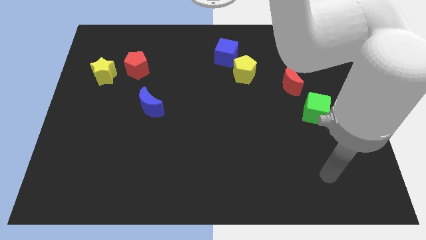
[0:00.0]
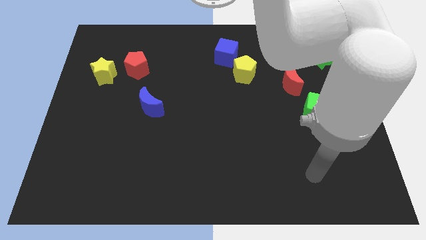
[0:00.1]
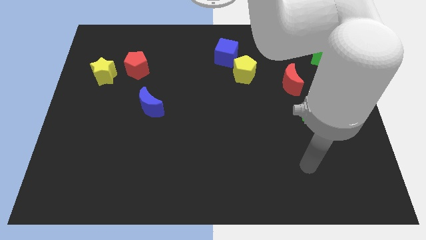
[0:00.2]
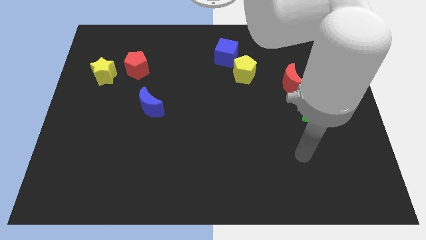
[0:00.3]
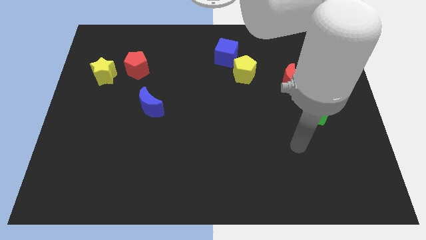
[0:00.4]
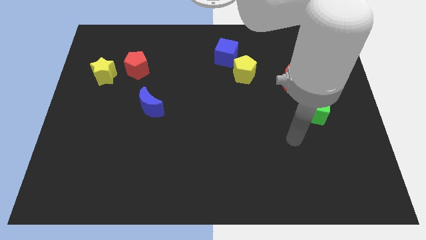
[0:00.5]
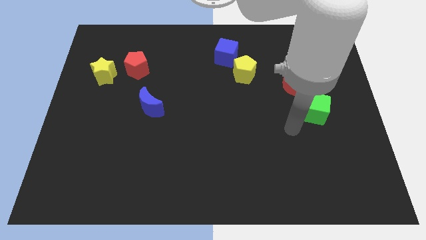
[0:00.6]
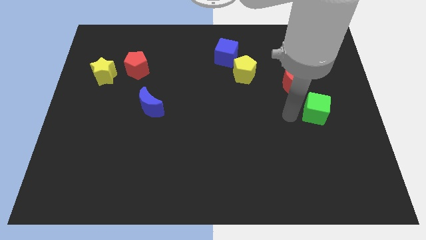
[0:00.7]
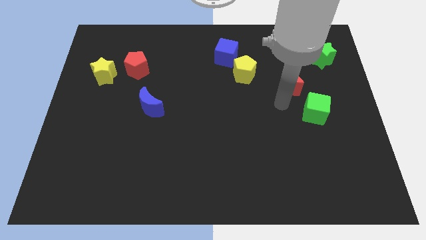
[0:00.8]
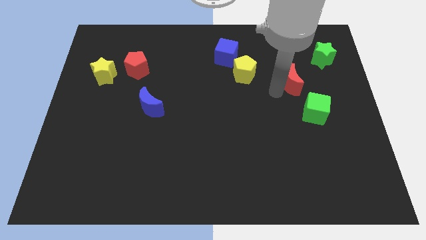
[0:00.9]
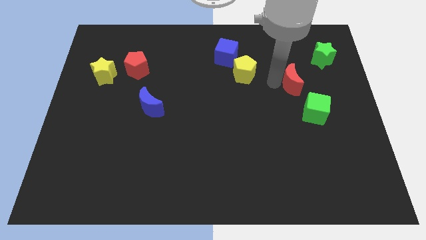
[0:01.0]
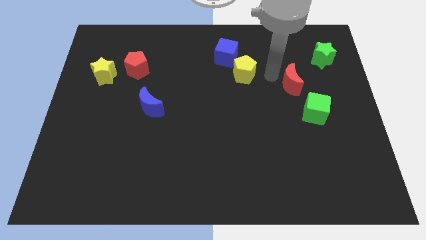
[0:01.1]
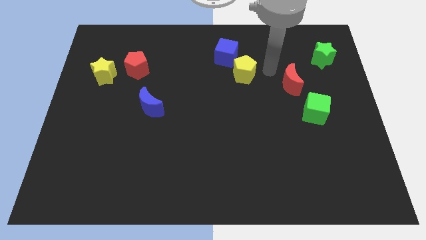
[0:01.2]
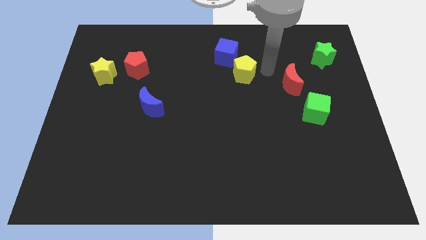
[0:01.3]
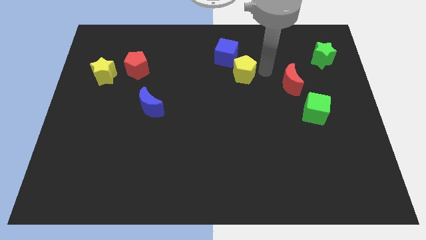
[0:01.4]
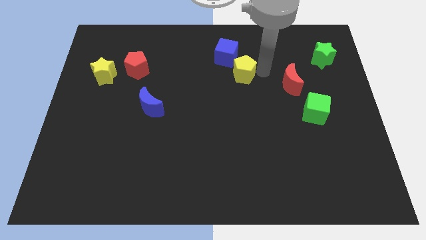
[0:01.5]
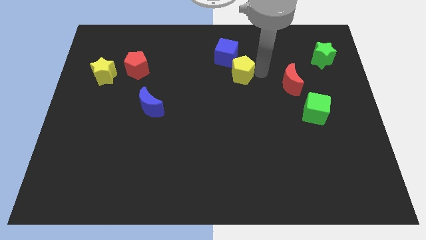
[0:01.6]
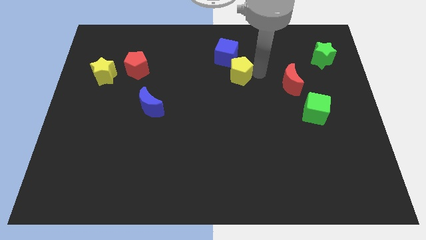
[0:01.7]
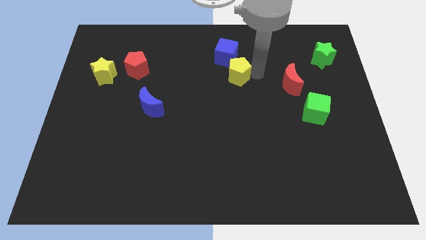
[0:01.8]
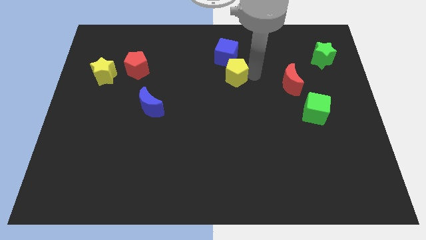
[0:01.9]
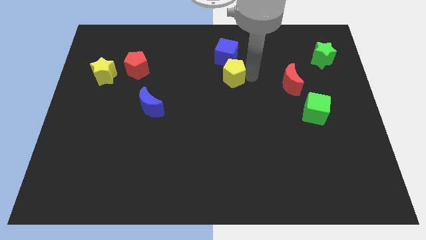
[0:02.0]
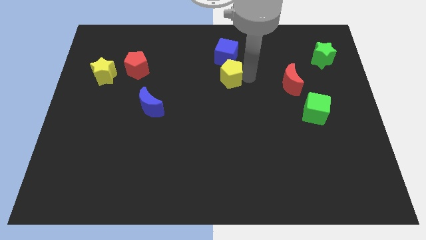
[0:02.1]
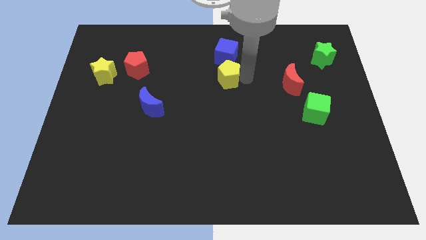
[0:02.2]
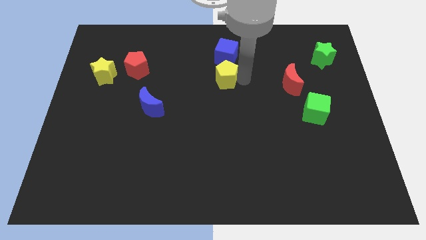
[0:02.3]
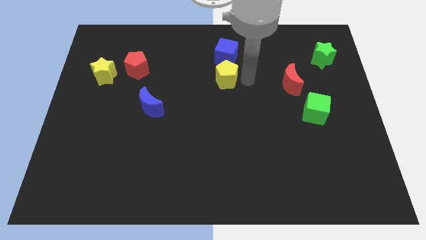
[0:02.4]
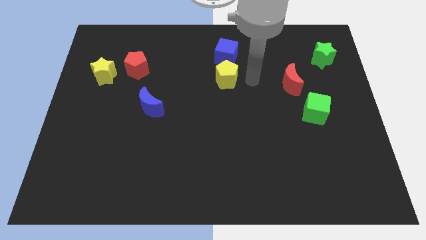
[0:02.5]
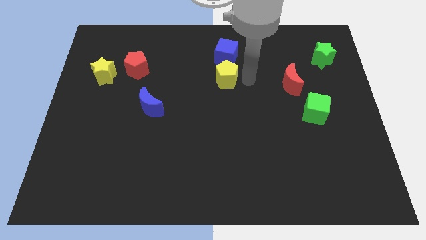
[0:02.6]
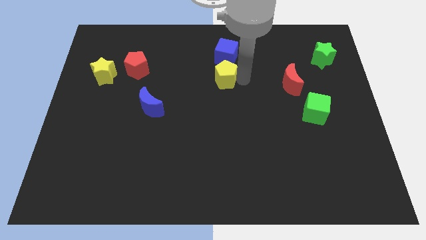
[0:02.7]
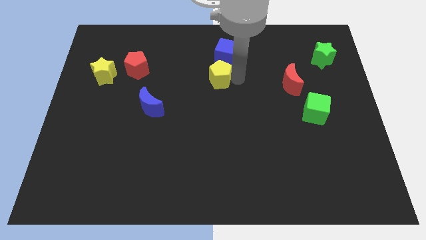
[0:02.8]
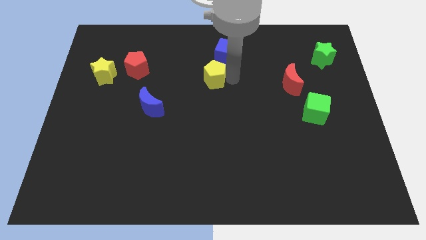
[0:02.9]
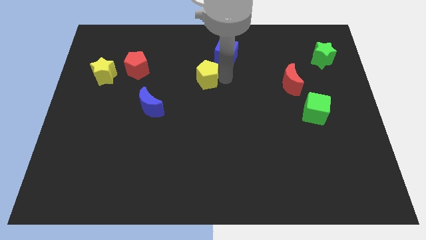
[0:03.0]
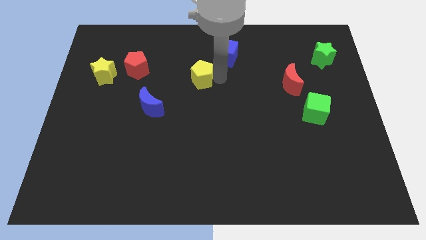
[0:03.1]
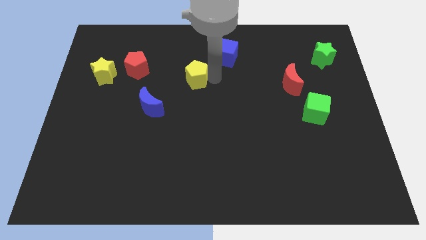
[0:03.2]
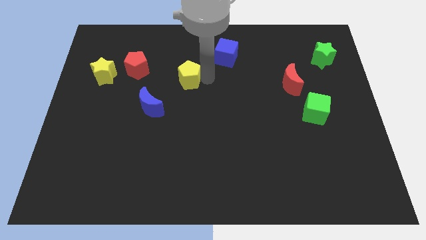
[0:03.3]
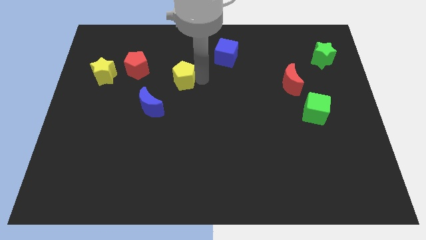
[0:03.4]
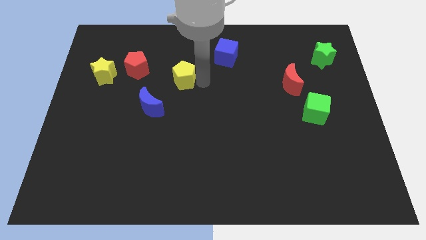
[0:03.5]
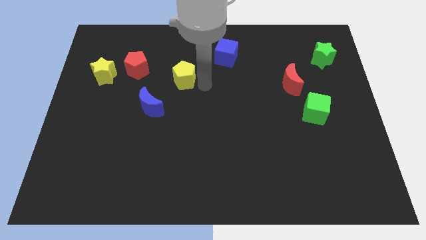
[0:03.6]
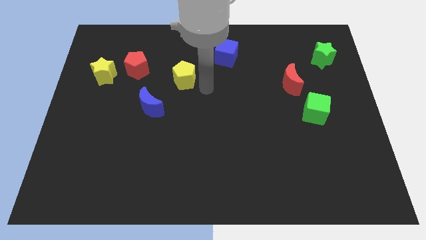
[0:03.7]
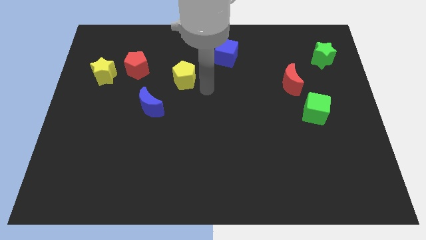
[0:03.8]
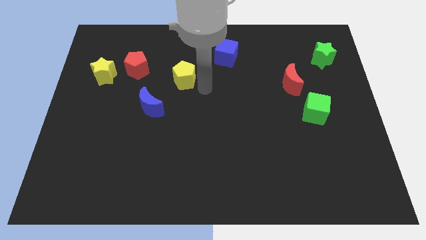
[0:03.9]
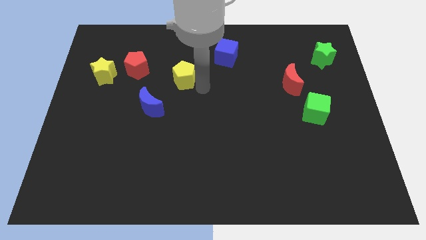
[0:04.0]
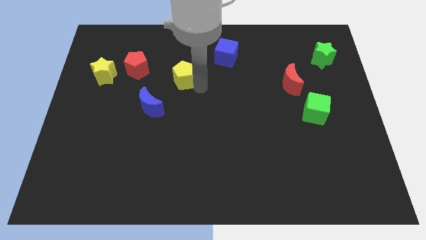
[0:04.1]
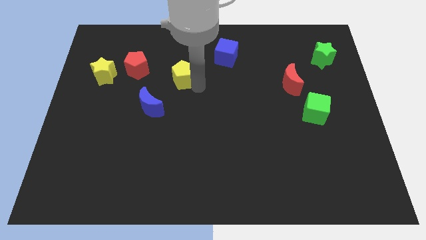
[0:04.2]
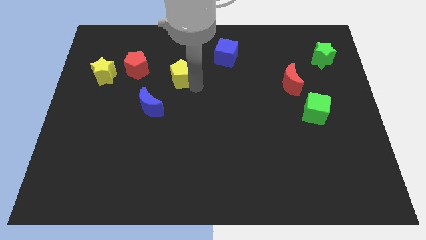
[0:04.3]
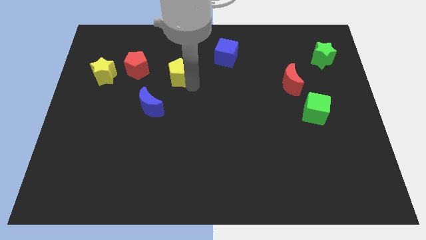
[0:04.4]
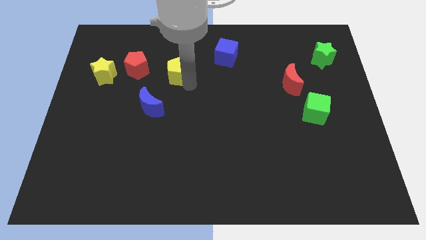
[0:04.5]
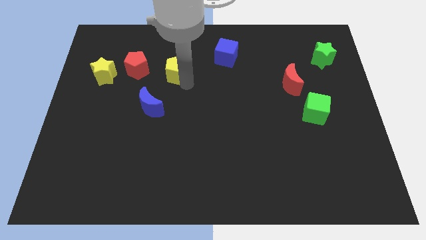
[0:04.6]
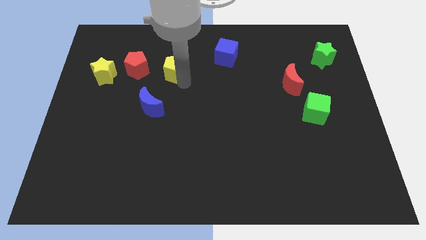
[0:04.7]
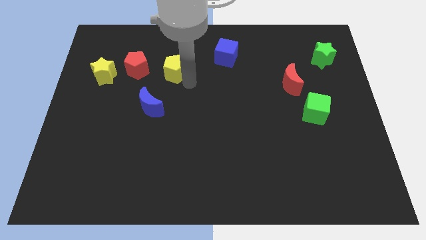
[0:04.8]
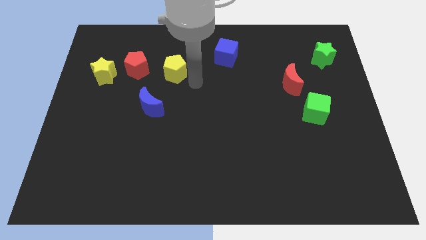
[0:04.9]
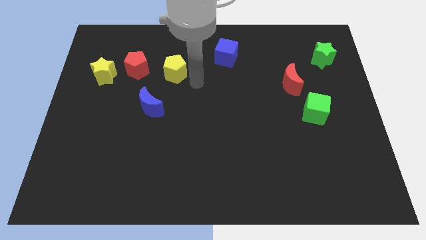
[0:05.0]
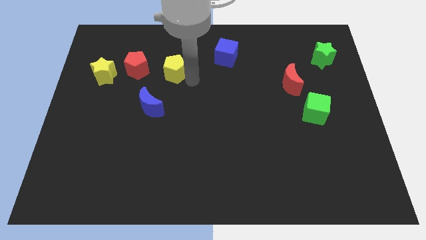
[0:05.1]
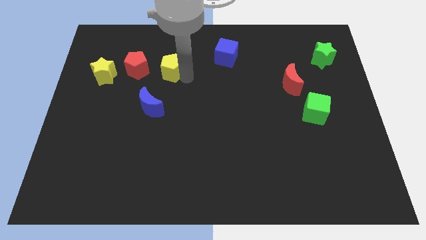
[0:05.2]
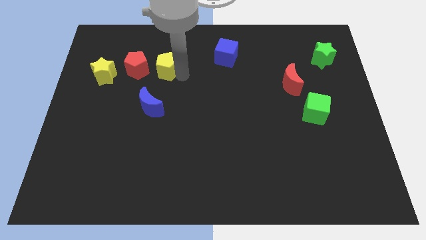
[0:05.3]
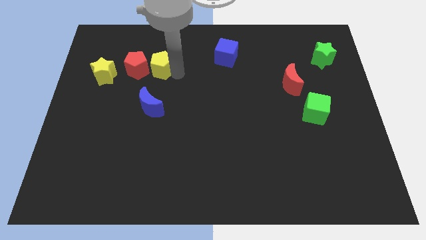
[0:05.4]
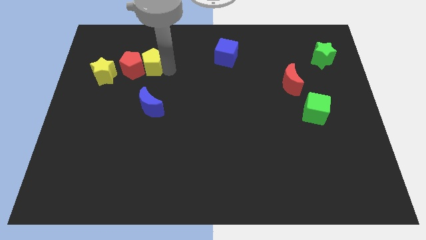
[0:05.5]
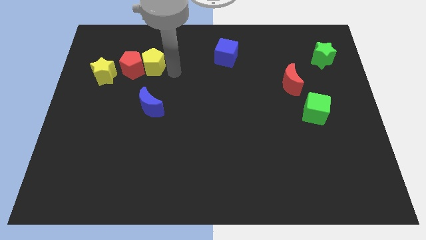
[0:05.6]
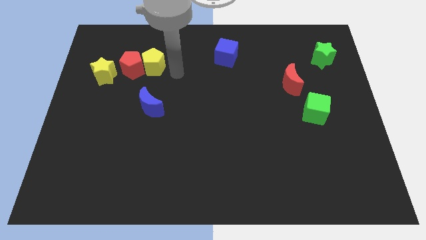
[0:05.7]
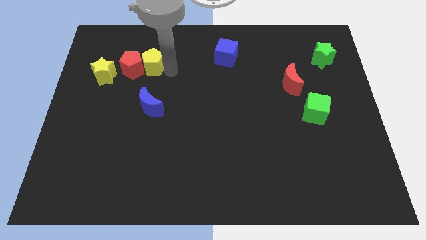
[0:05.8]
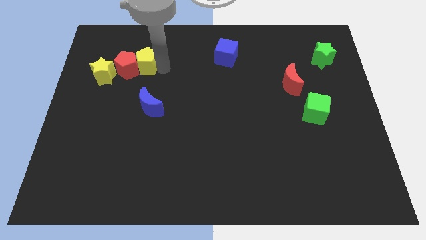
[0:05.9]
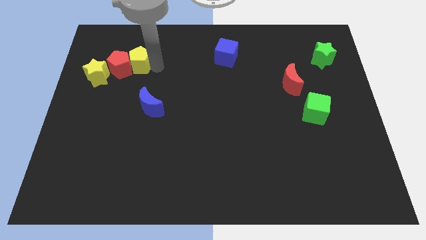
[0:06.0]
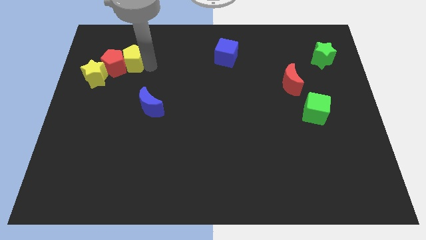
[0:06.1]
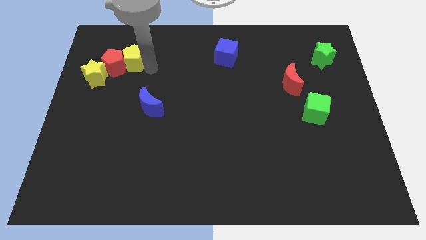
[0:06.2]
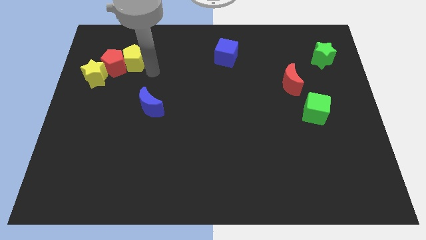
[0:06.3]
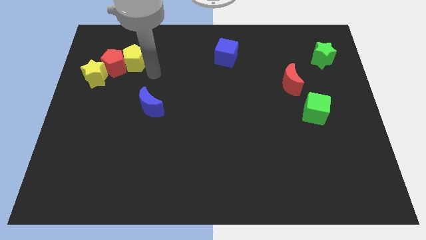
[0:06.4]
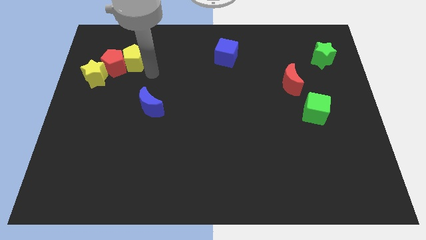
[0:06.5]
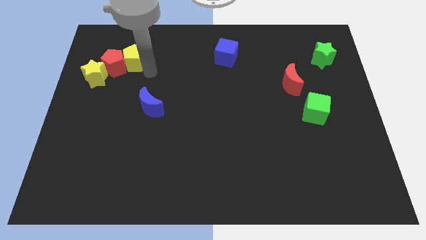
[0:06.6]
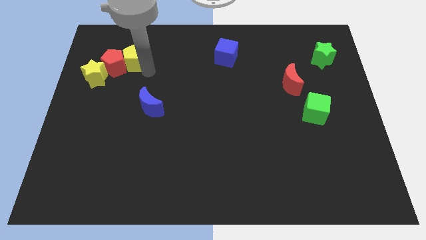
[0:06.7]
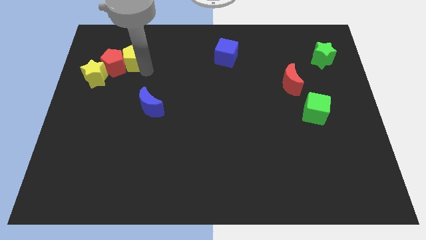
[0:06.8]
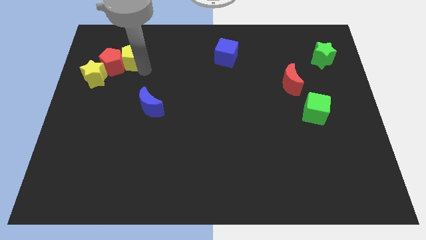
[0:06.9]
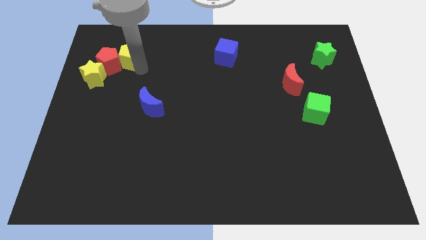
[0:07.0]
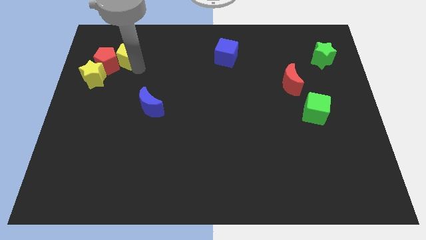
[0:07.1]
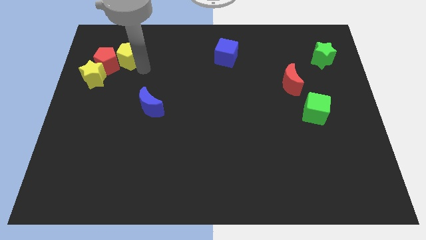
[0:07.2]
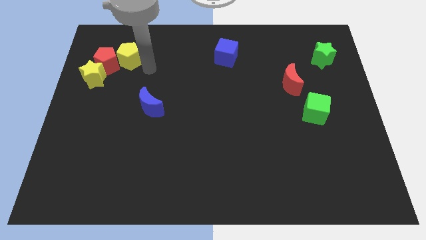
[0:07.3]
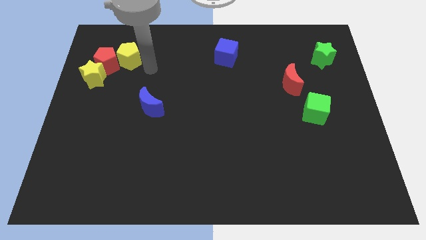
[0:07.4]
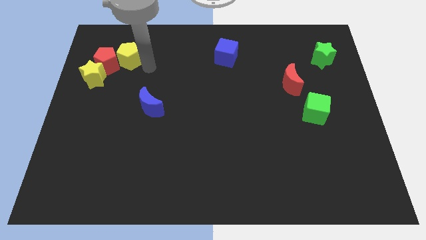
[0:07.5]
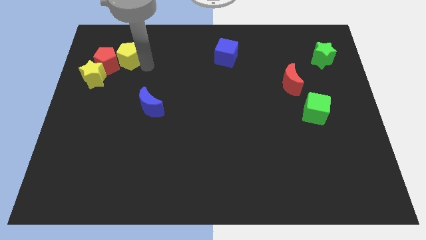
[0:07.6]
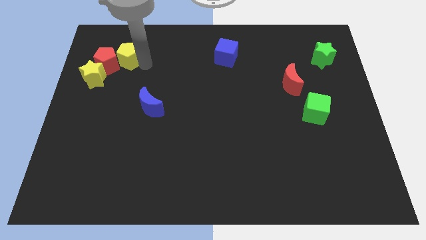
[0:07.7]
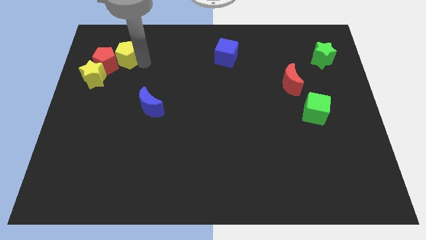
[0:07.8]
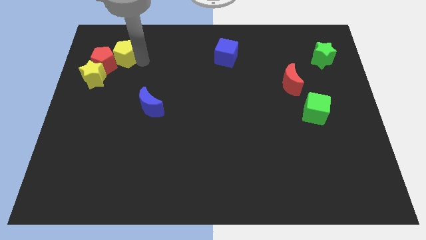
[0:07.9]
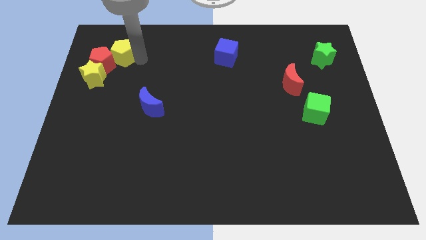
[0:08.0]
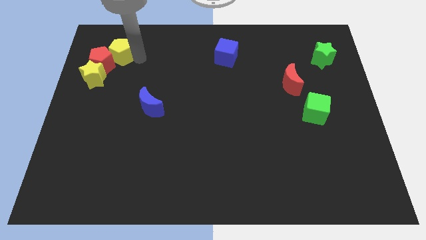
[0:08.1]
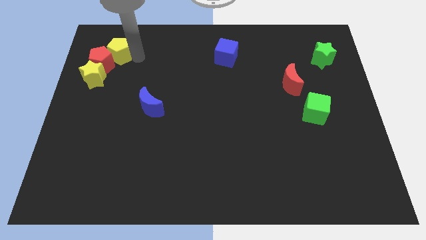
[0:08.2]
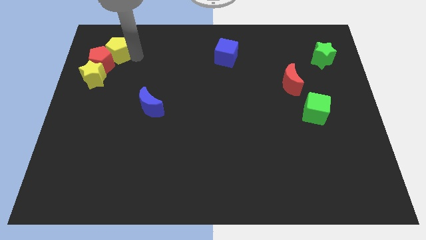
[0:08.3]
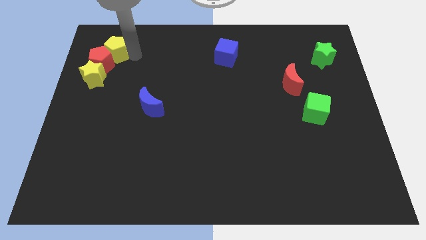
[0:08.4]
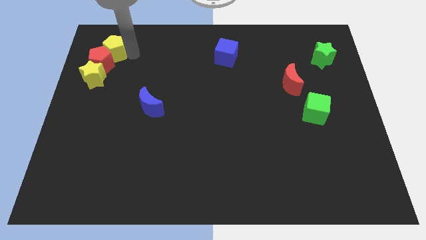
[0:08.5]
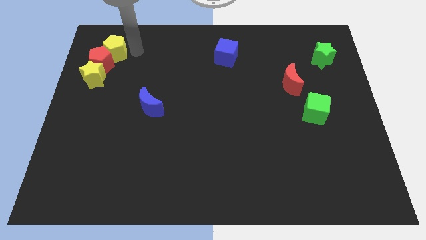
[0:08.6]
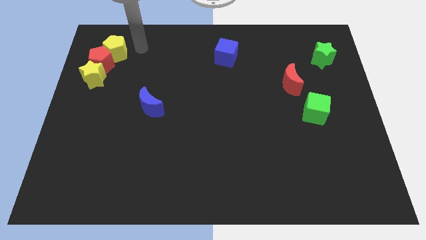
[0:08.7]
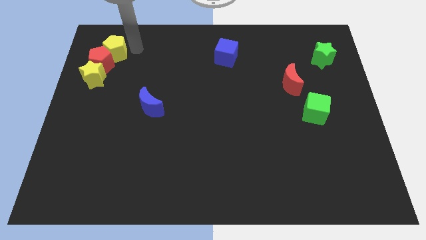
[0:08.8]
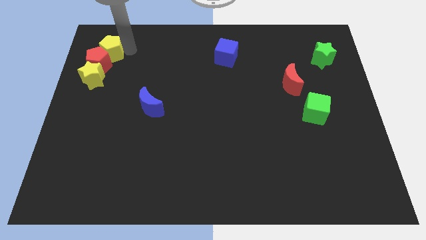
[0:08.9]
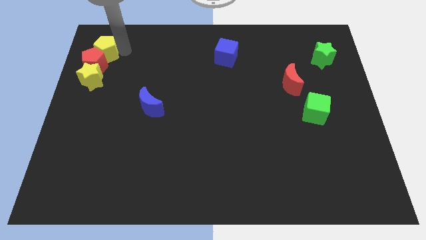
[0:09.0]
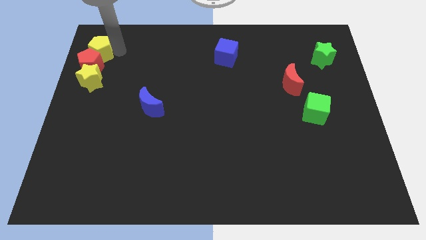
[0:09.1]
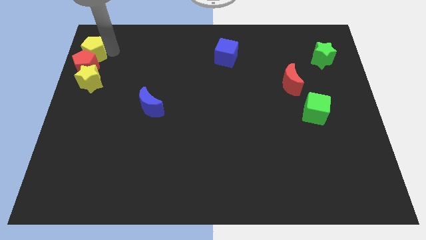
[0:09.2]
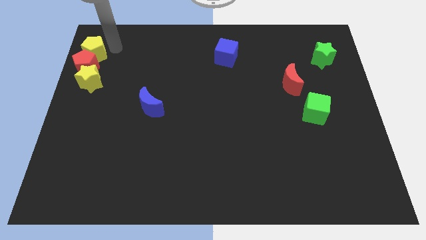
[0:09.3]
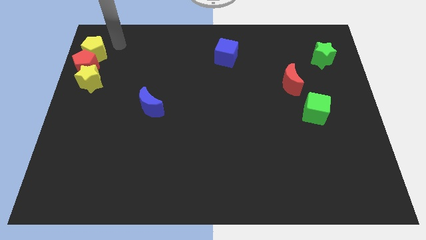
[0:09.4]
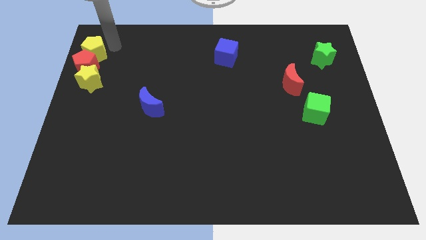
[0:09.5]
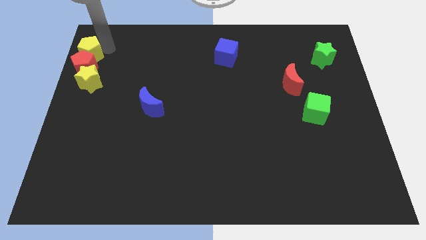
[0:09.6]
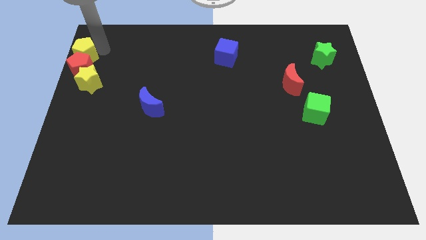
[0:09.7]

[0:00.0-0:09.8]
move the yellow pentagon to the upper left corner
